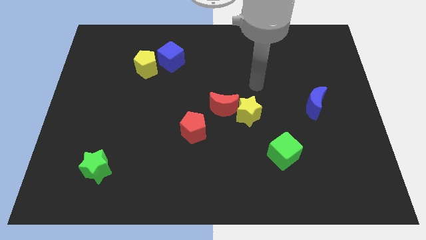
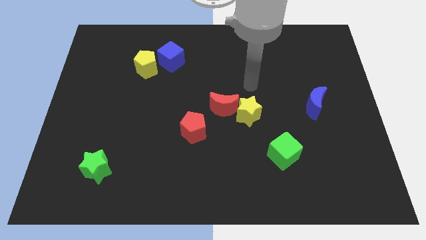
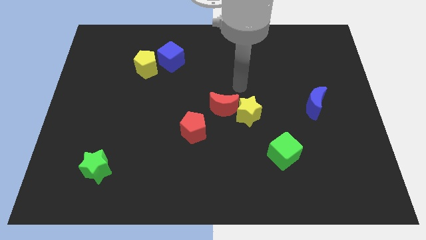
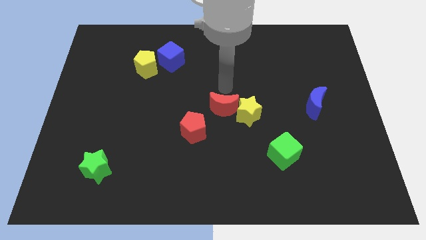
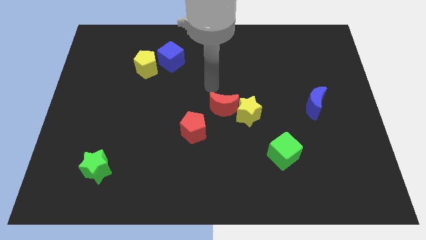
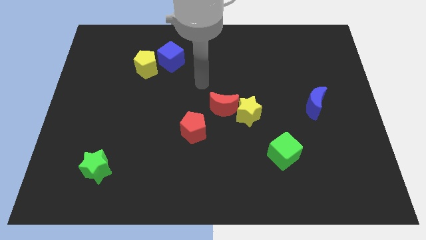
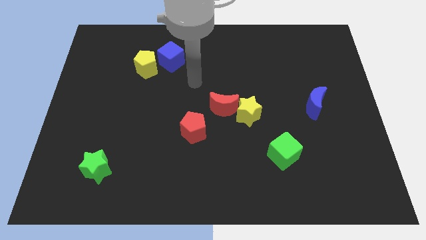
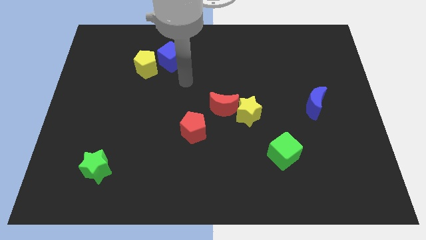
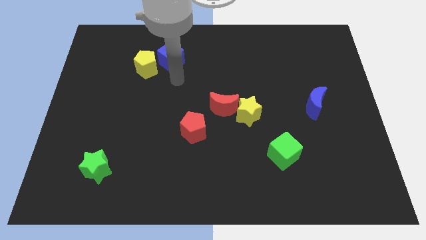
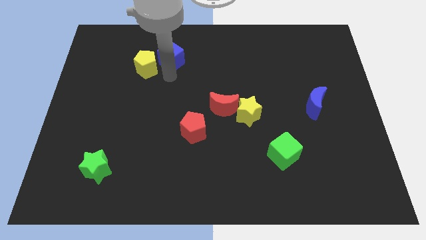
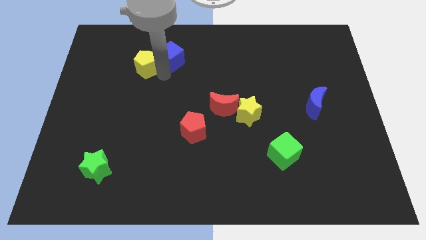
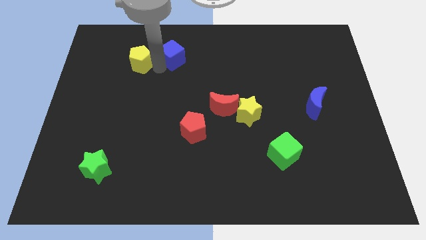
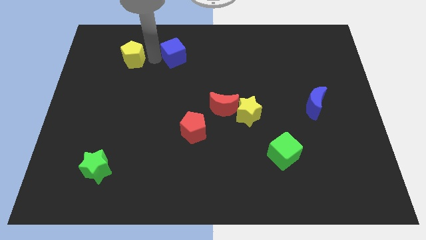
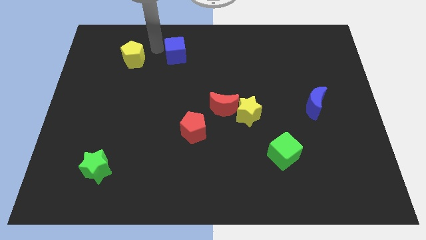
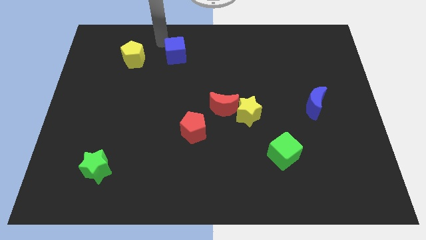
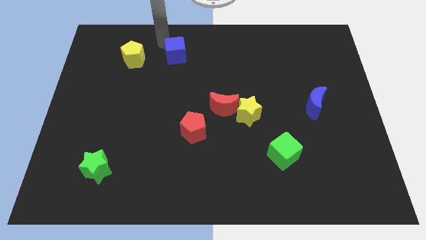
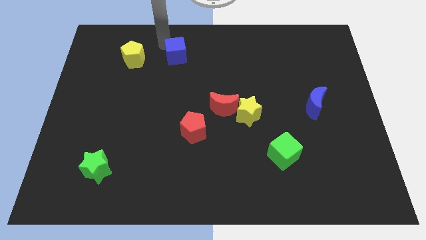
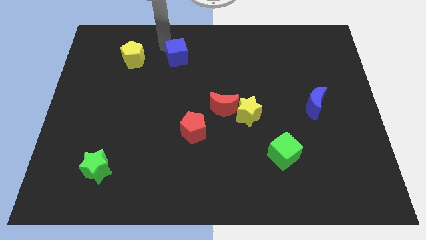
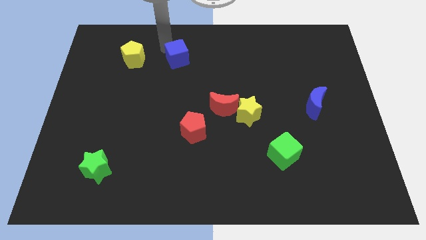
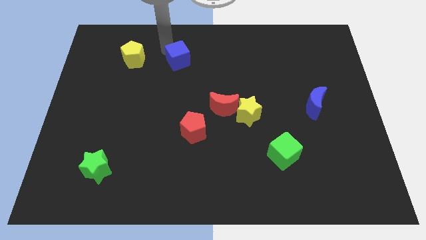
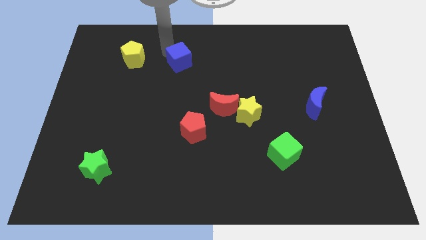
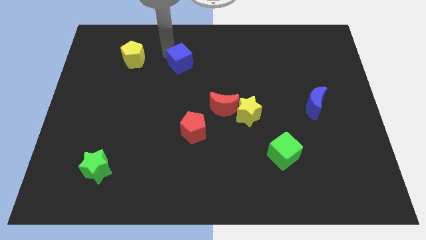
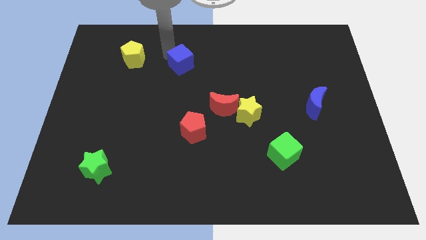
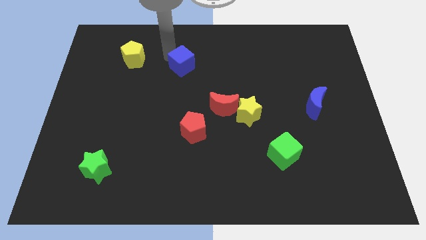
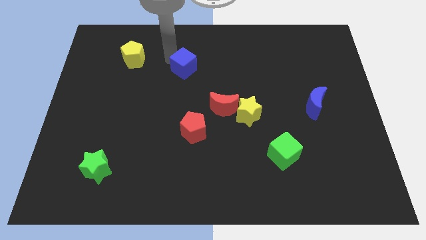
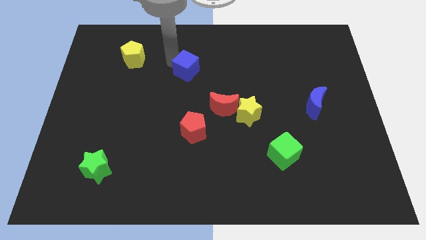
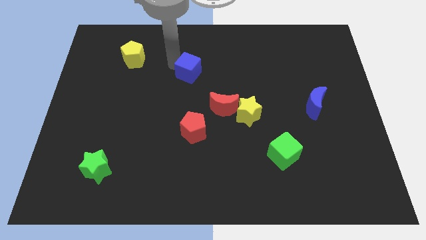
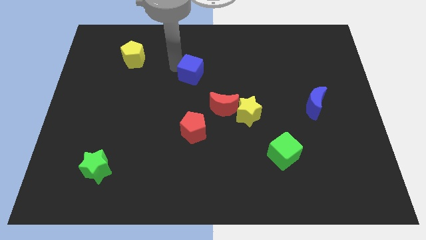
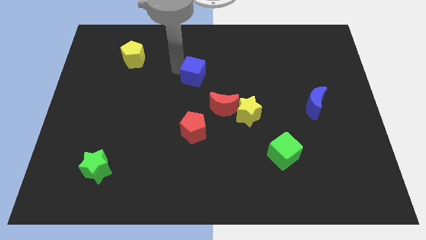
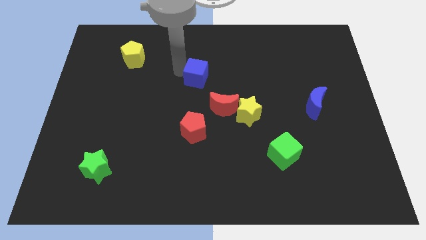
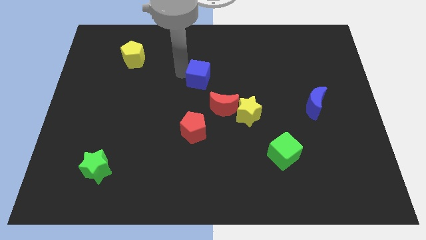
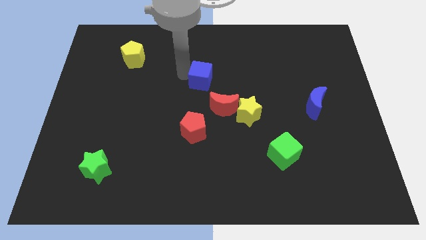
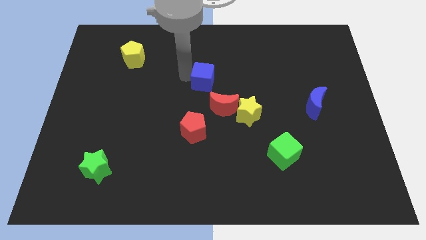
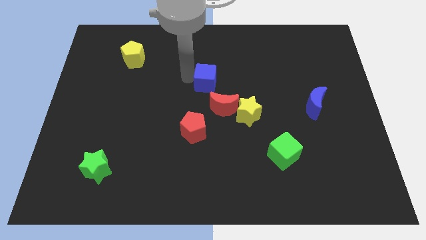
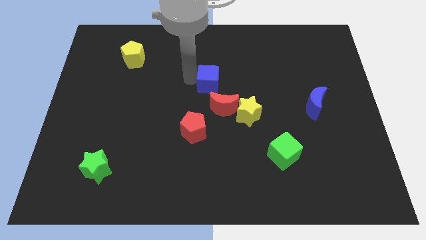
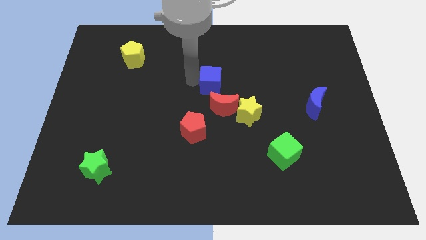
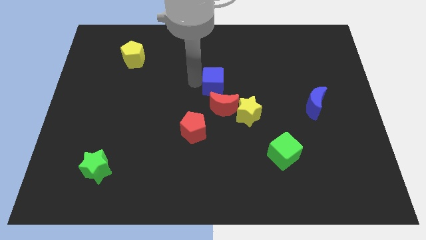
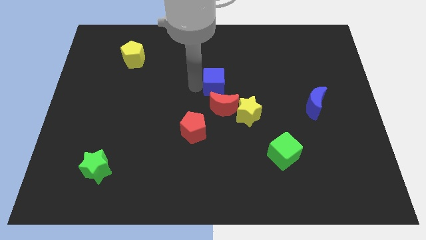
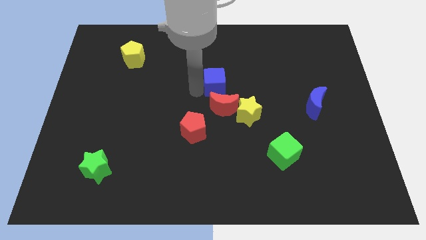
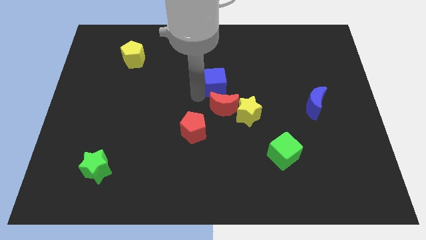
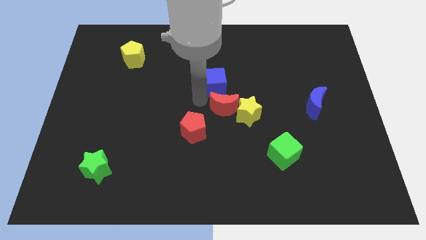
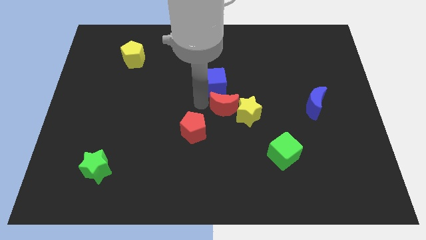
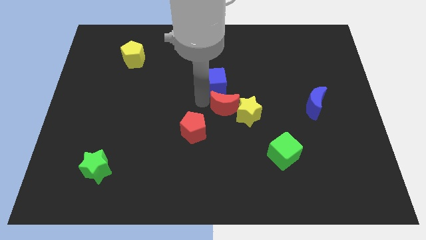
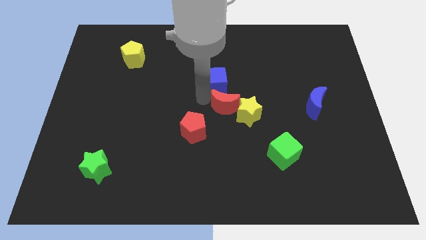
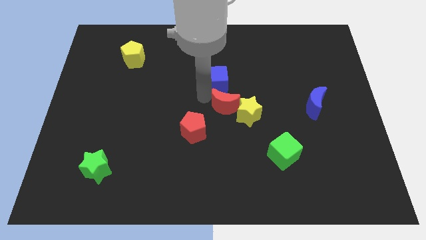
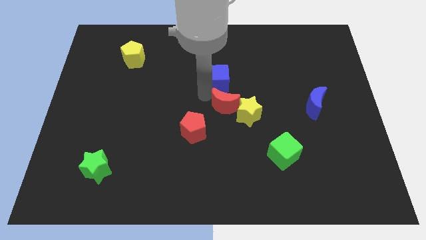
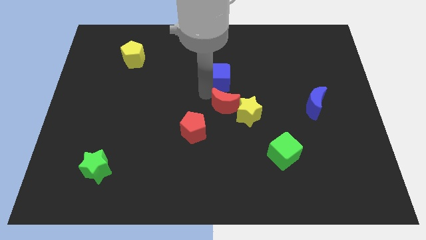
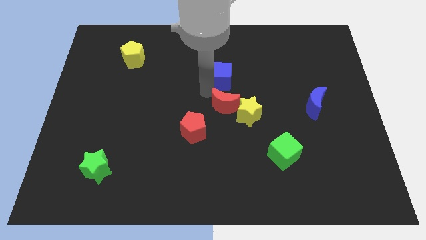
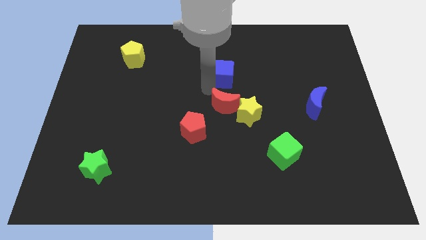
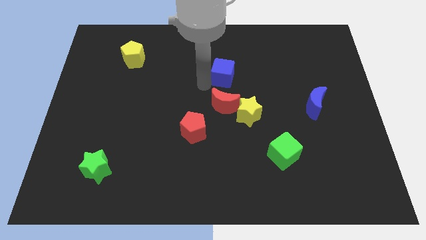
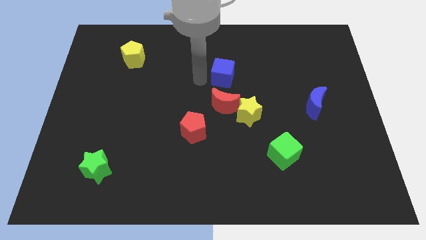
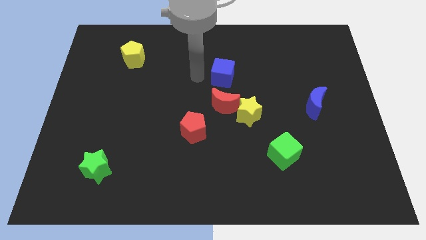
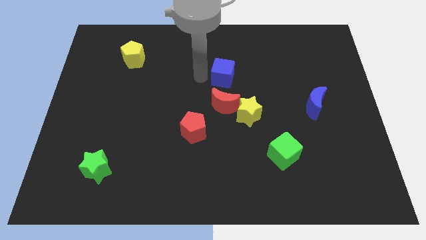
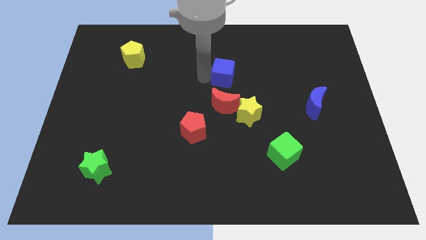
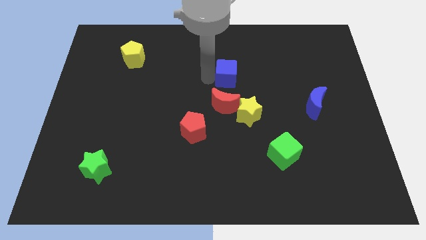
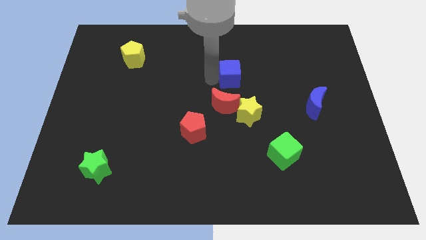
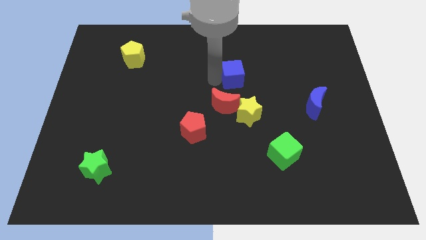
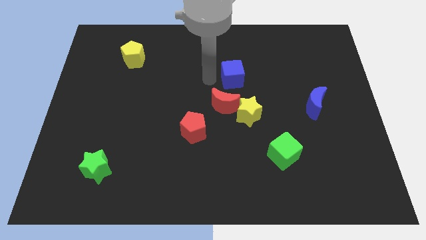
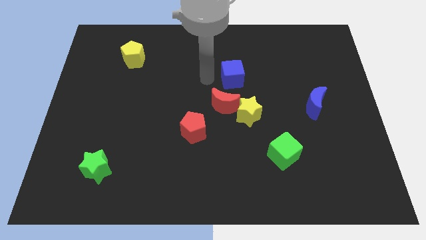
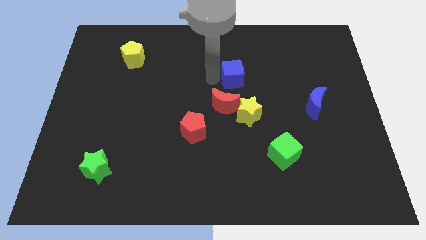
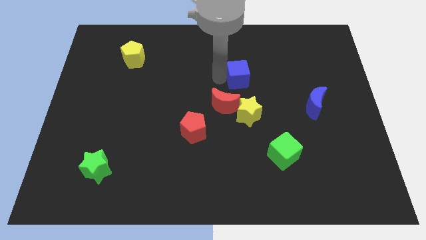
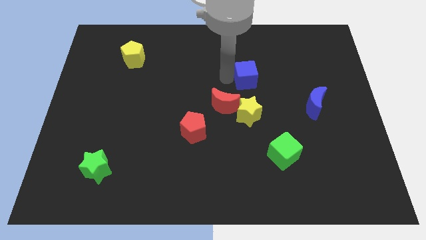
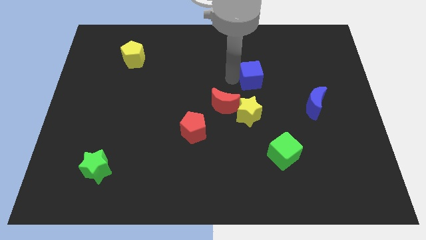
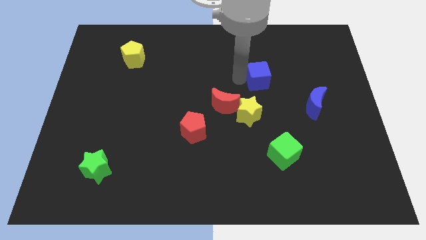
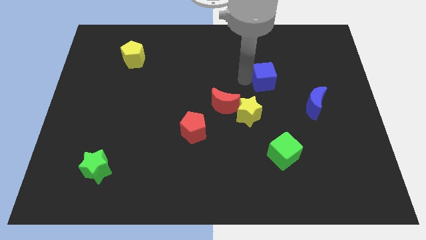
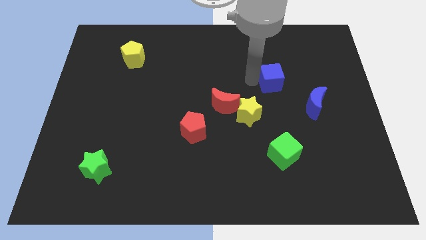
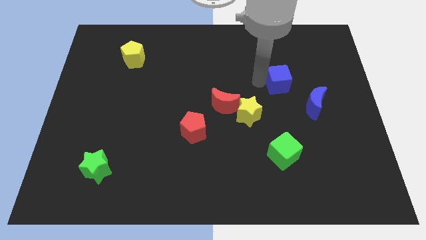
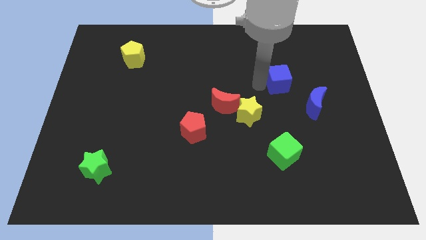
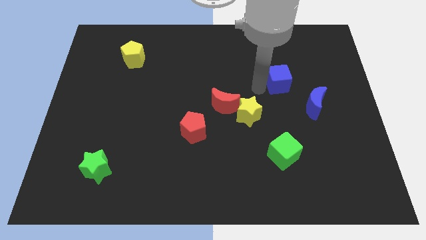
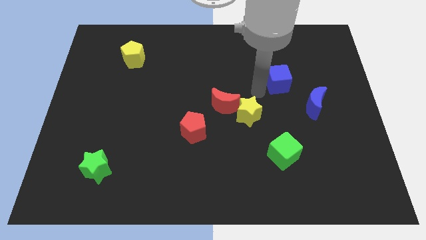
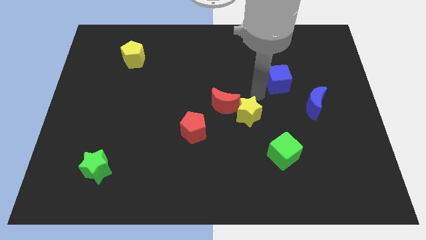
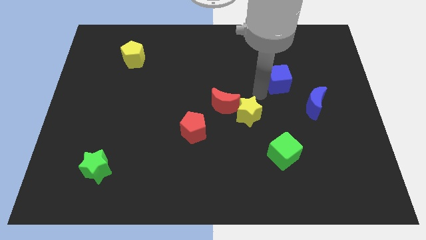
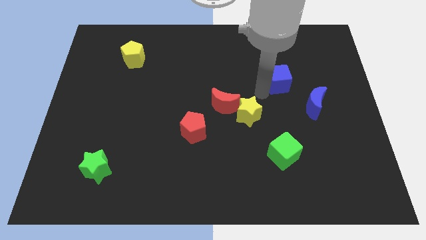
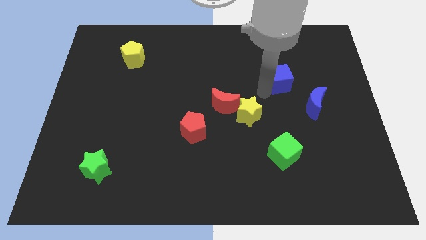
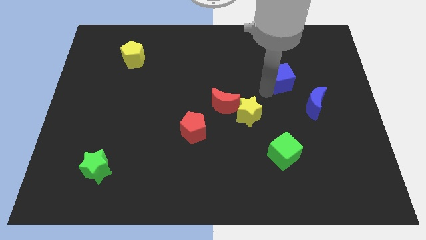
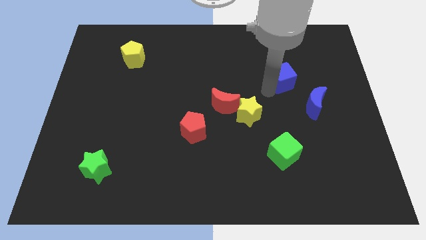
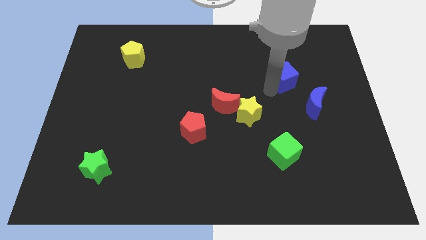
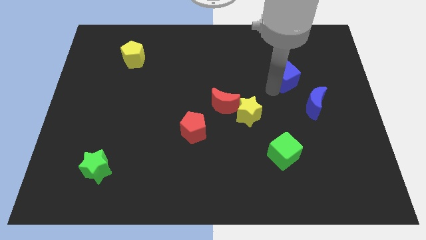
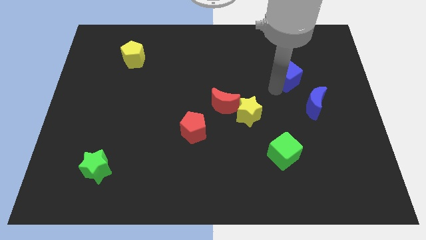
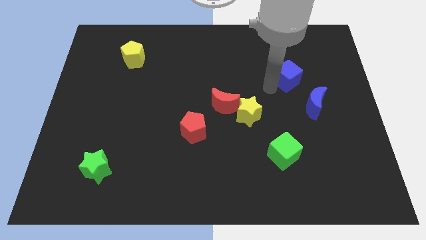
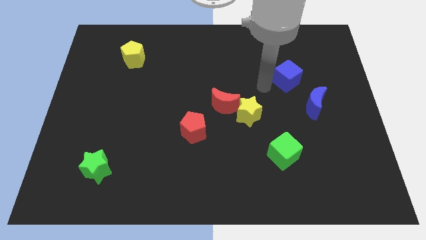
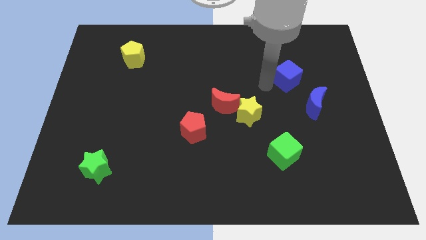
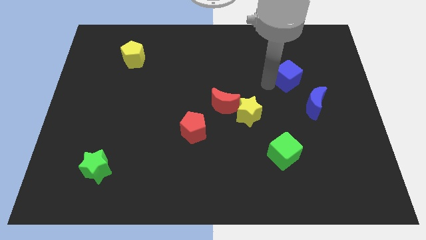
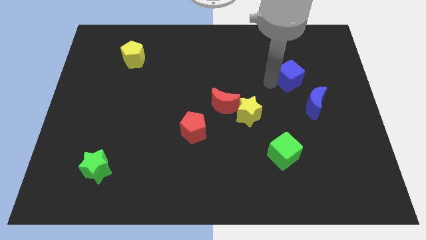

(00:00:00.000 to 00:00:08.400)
push the blue cube to the top side of the blue moon
